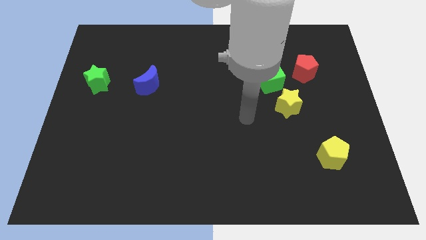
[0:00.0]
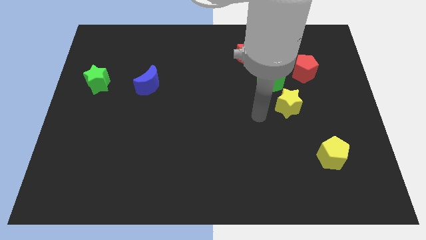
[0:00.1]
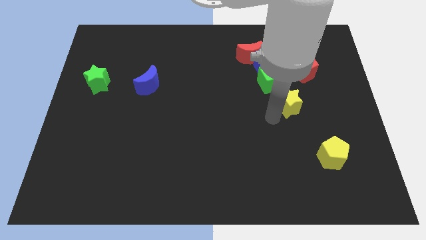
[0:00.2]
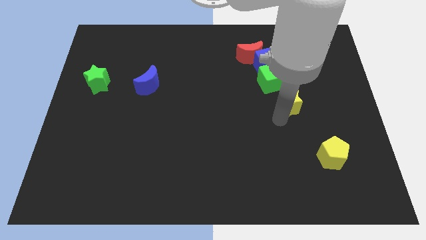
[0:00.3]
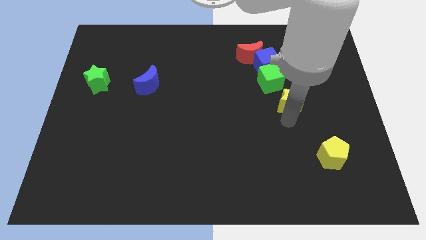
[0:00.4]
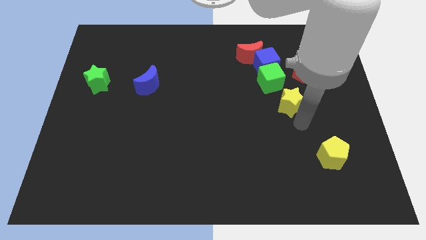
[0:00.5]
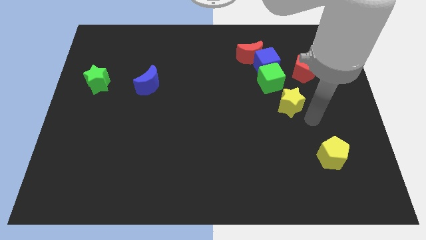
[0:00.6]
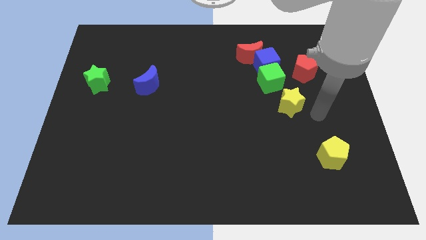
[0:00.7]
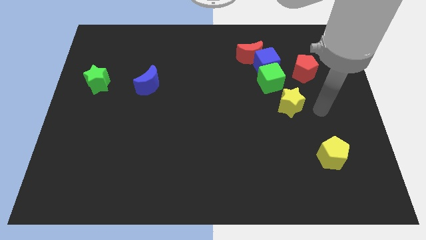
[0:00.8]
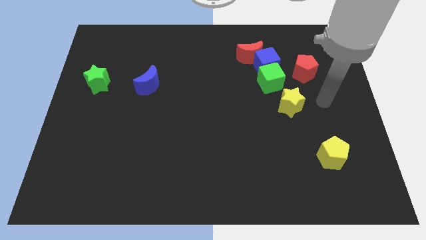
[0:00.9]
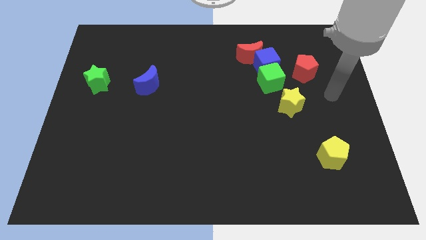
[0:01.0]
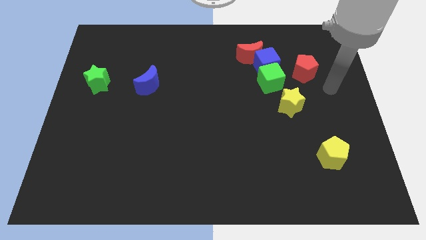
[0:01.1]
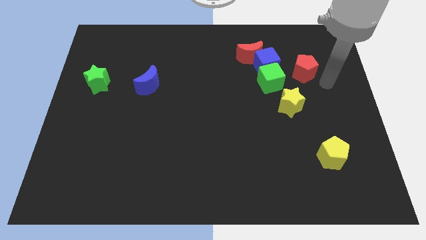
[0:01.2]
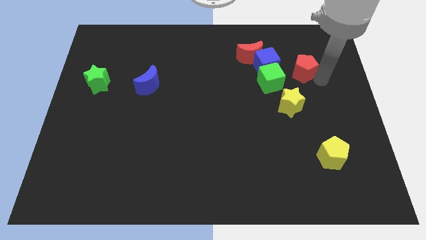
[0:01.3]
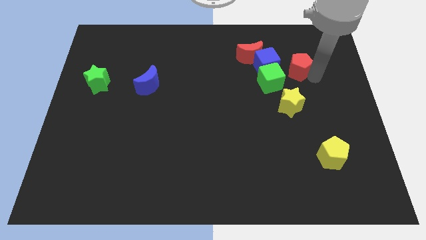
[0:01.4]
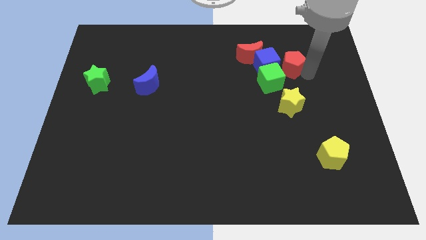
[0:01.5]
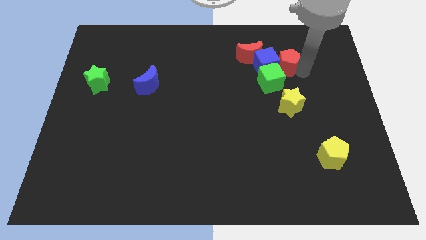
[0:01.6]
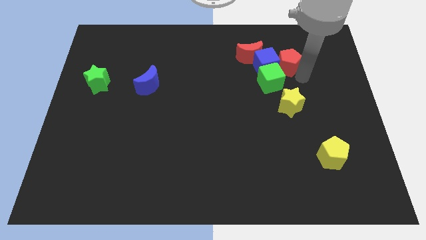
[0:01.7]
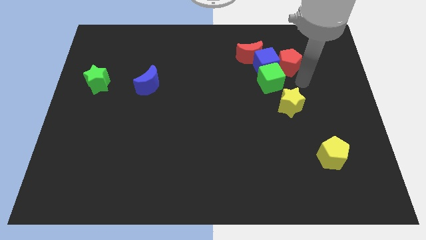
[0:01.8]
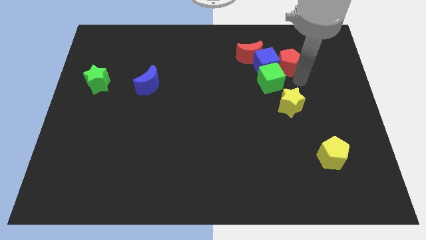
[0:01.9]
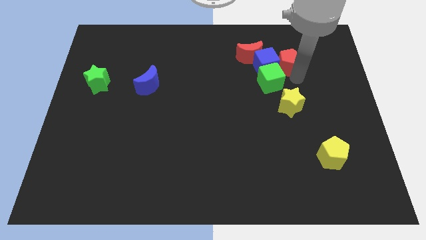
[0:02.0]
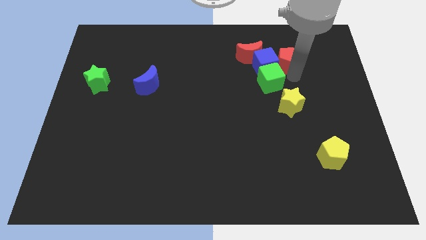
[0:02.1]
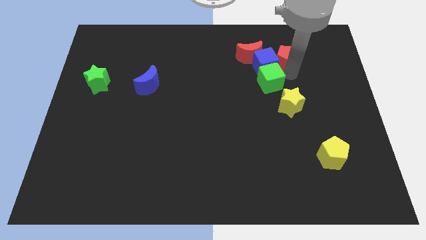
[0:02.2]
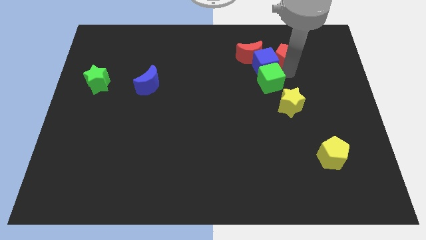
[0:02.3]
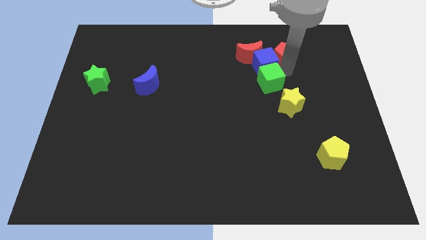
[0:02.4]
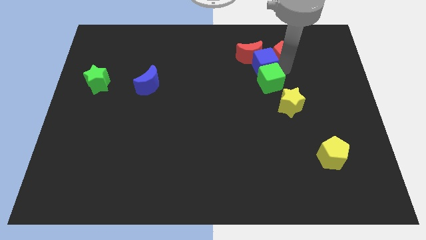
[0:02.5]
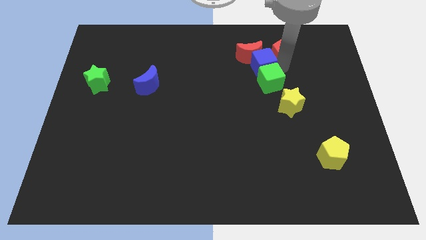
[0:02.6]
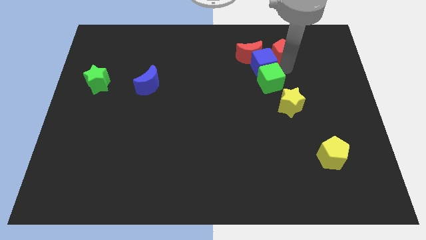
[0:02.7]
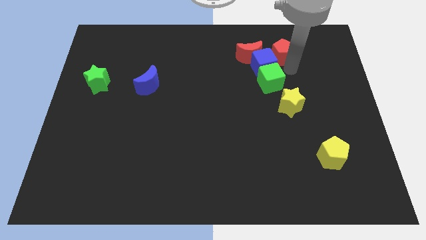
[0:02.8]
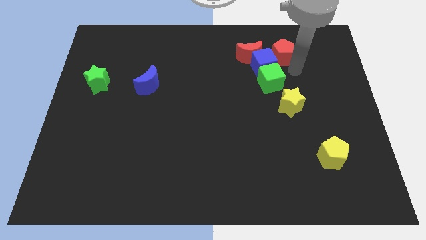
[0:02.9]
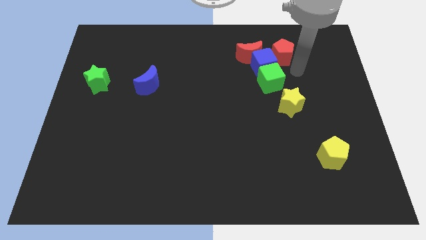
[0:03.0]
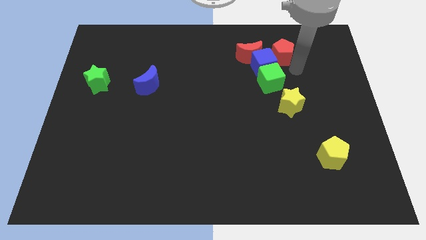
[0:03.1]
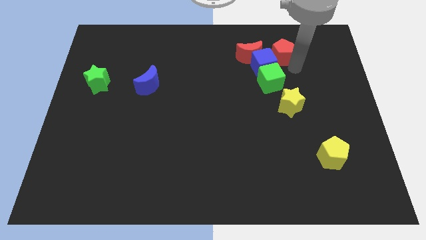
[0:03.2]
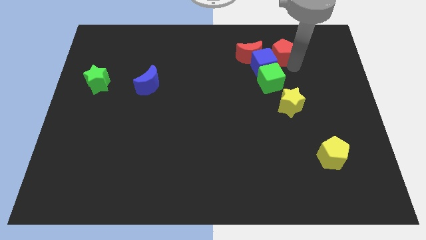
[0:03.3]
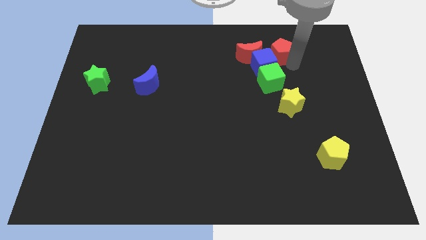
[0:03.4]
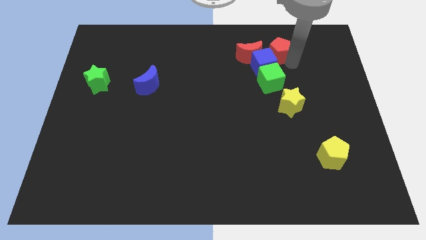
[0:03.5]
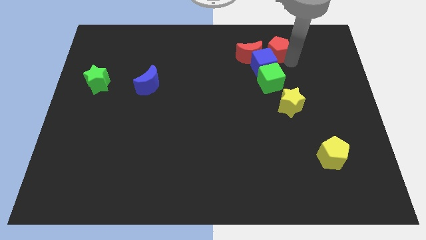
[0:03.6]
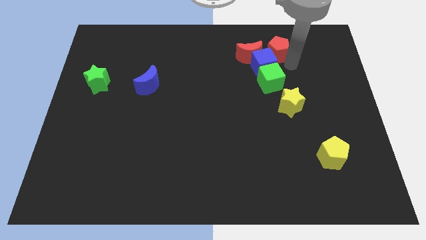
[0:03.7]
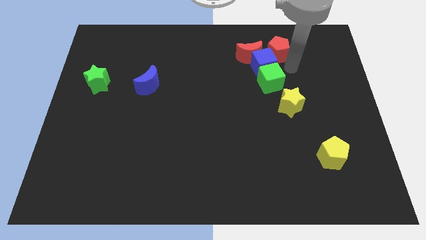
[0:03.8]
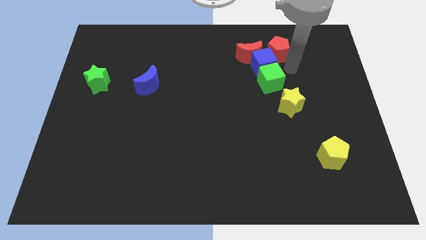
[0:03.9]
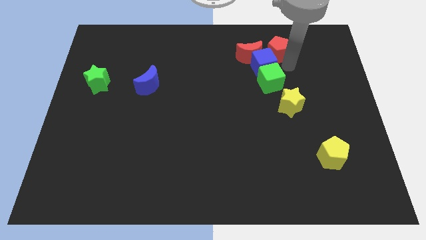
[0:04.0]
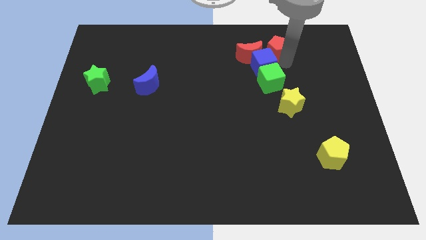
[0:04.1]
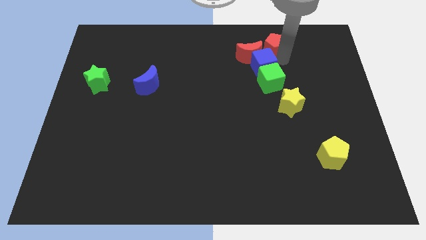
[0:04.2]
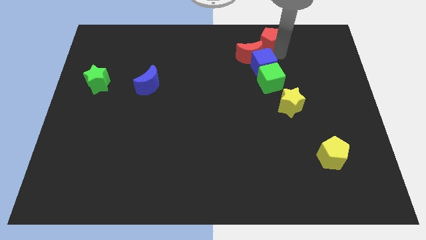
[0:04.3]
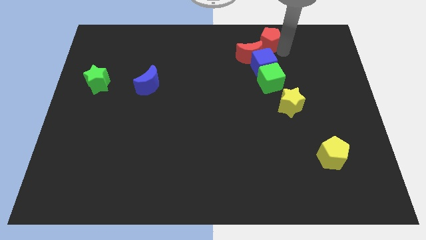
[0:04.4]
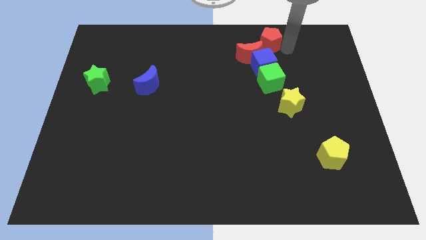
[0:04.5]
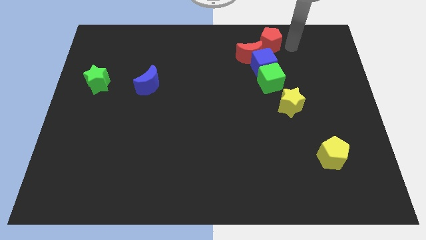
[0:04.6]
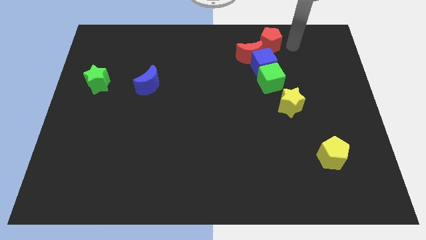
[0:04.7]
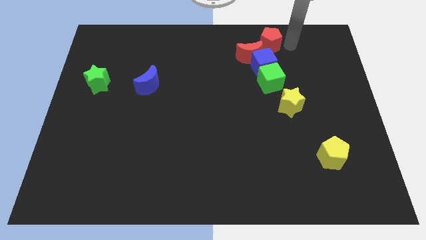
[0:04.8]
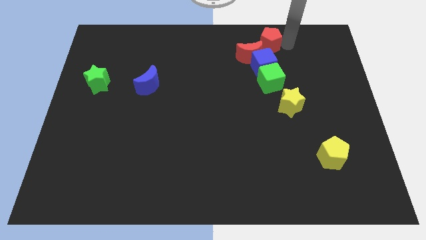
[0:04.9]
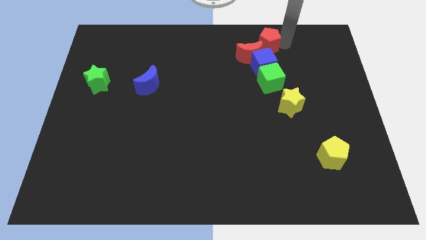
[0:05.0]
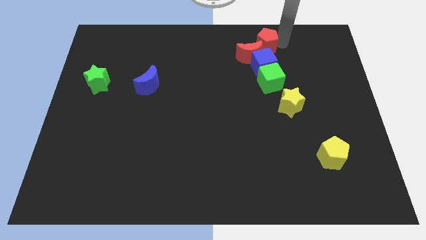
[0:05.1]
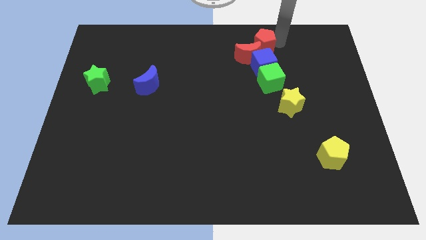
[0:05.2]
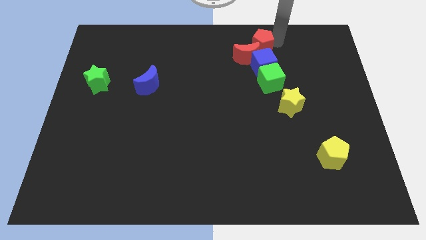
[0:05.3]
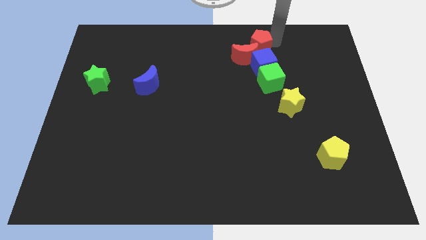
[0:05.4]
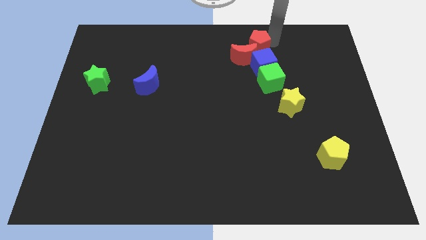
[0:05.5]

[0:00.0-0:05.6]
slightly slide the red pentagon left

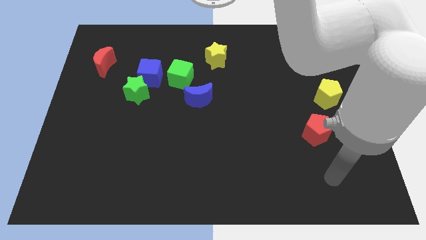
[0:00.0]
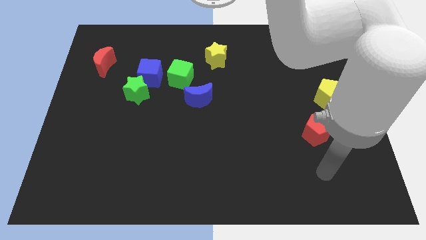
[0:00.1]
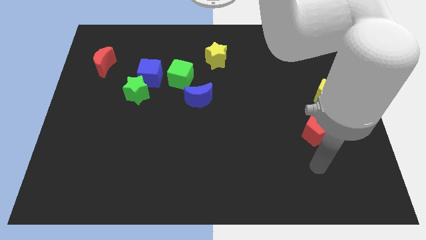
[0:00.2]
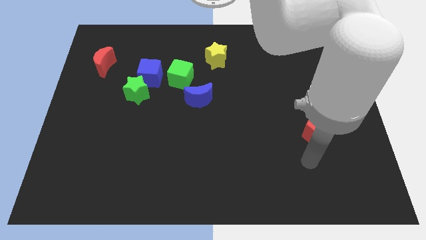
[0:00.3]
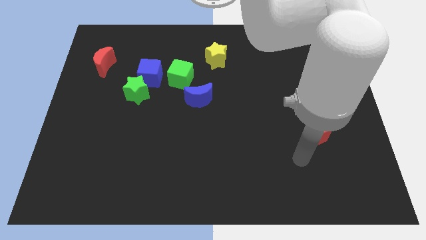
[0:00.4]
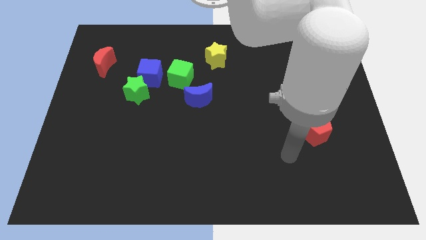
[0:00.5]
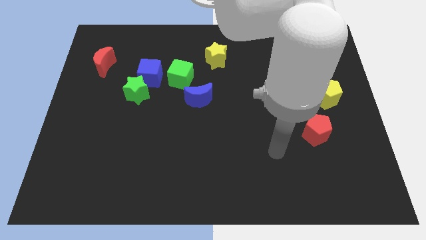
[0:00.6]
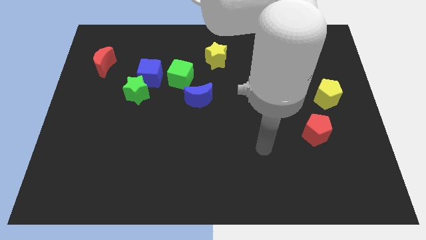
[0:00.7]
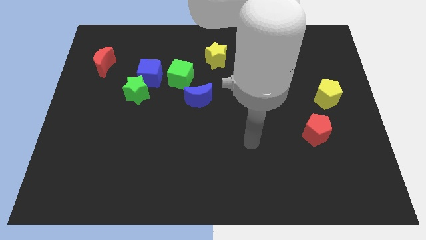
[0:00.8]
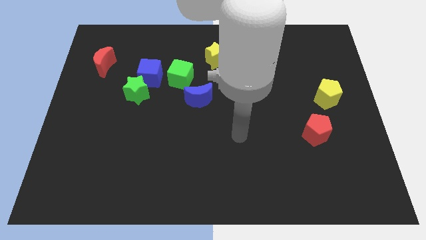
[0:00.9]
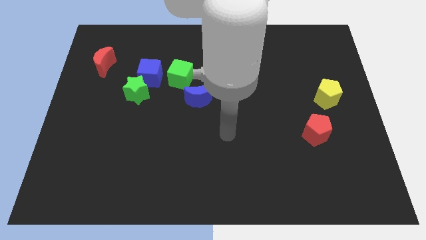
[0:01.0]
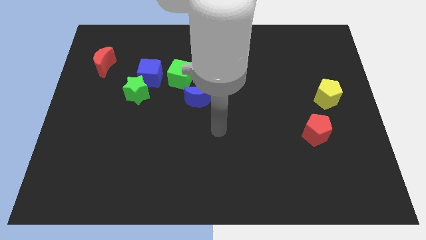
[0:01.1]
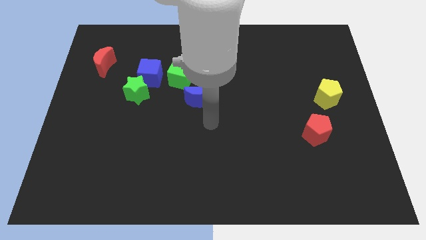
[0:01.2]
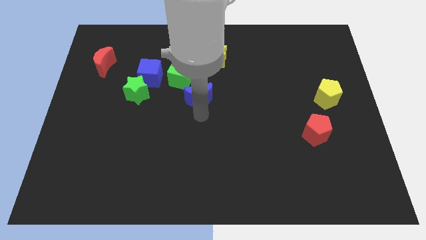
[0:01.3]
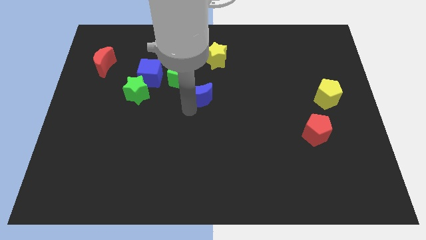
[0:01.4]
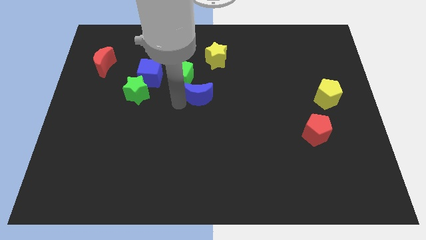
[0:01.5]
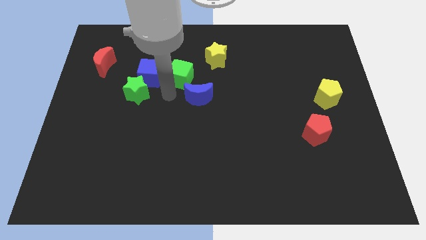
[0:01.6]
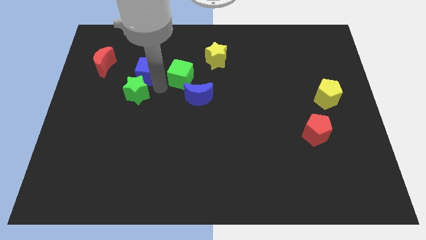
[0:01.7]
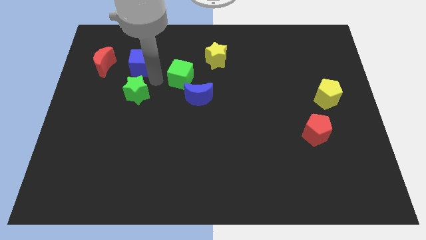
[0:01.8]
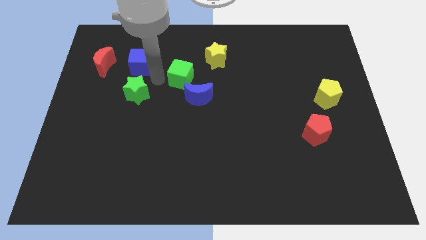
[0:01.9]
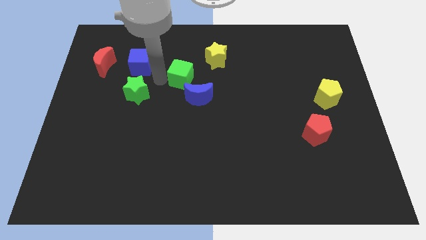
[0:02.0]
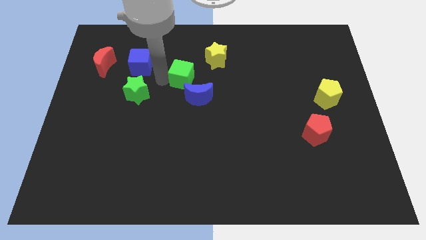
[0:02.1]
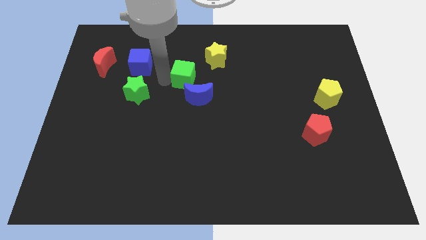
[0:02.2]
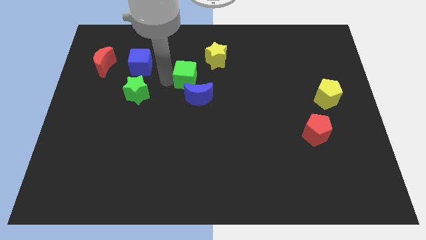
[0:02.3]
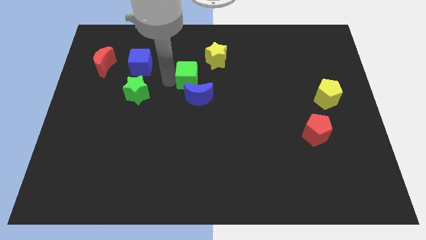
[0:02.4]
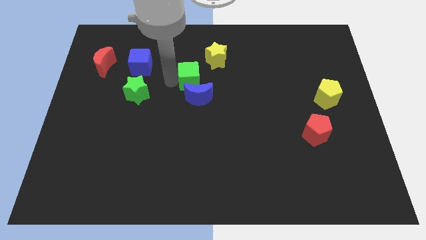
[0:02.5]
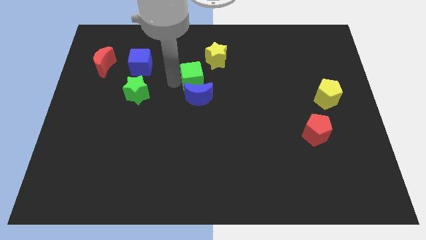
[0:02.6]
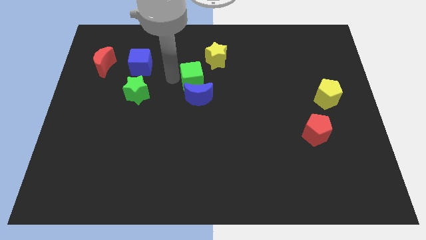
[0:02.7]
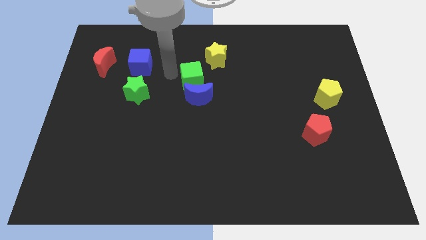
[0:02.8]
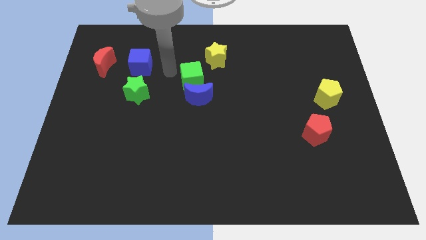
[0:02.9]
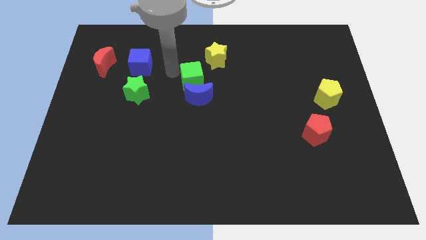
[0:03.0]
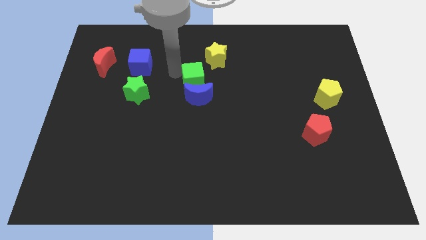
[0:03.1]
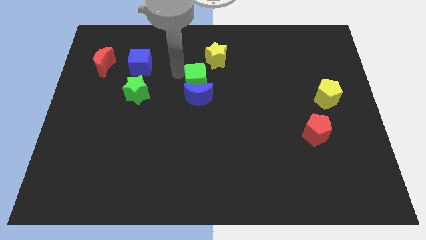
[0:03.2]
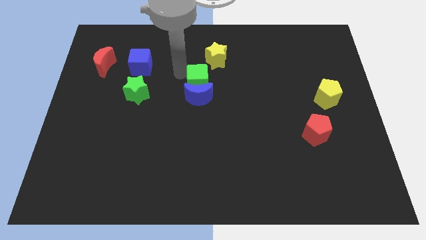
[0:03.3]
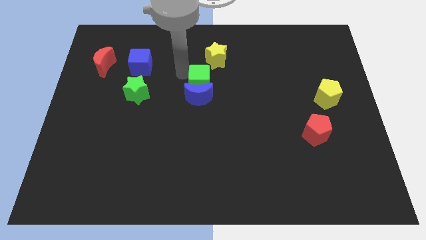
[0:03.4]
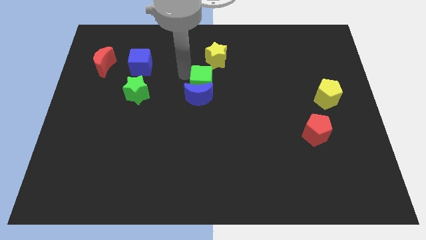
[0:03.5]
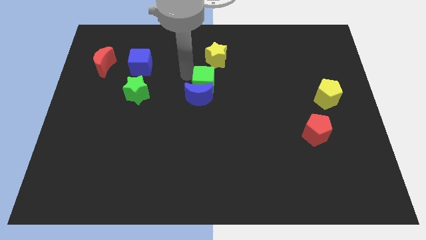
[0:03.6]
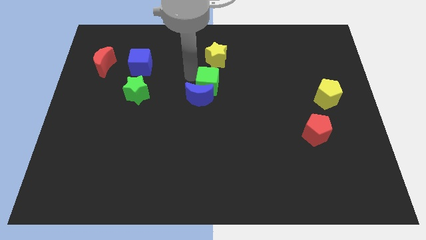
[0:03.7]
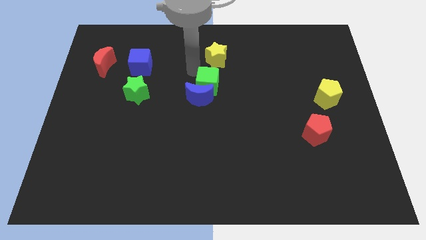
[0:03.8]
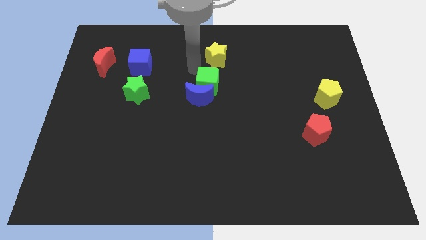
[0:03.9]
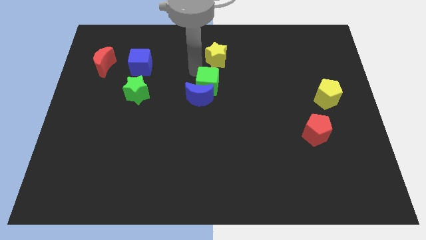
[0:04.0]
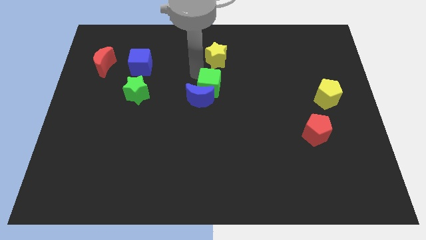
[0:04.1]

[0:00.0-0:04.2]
slightly move the green cube down and then right
